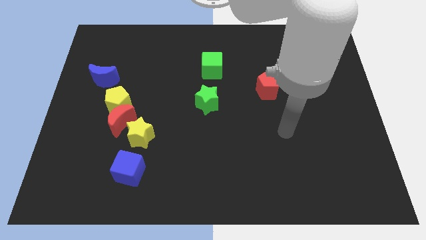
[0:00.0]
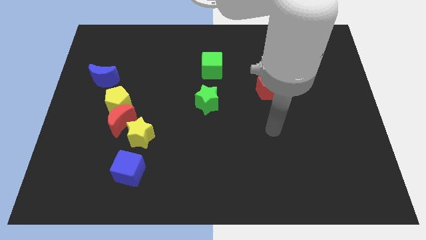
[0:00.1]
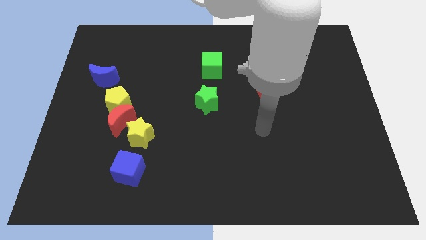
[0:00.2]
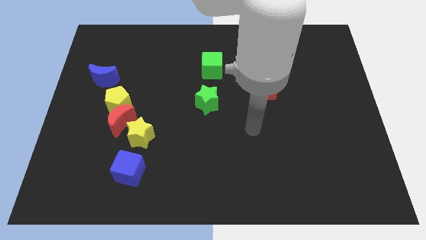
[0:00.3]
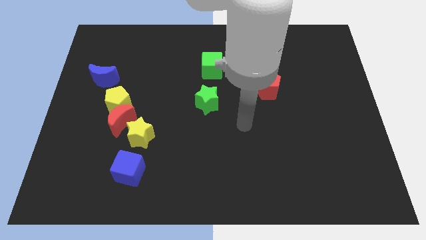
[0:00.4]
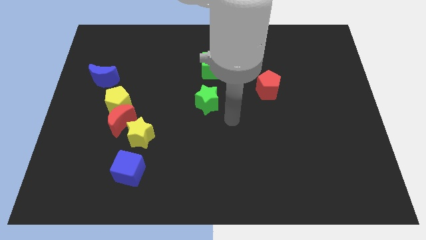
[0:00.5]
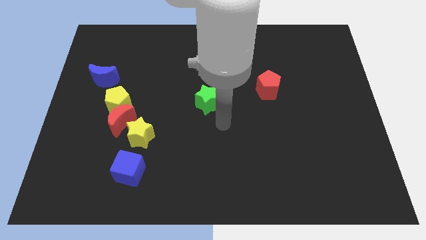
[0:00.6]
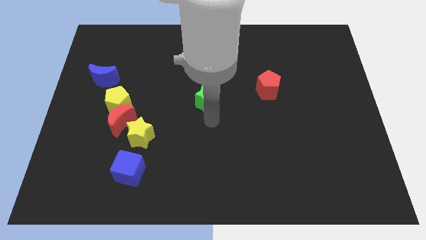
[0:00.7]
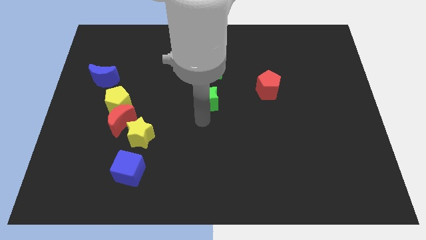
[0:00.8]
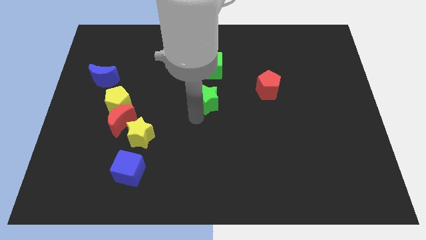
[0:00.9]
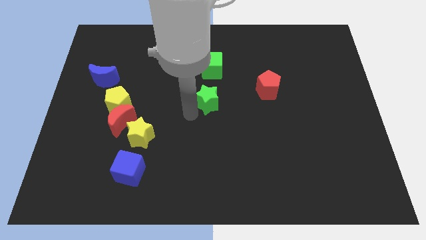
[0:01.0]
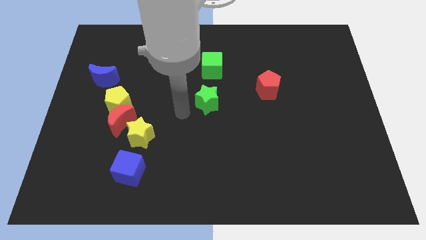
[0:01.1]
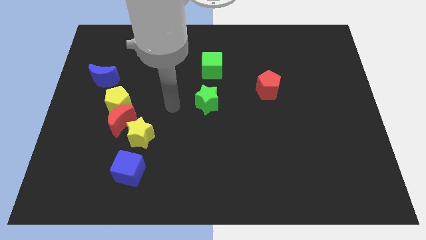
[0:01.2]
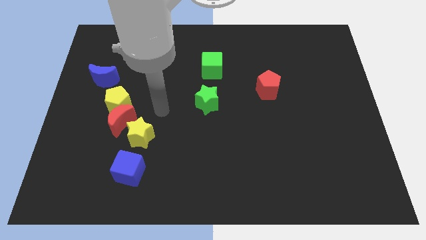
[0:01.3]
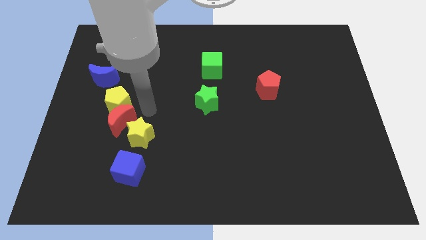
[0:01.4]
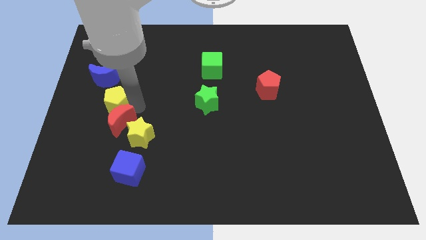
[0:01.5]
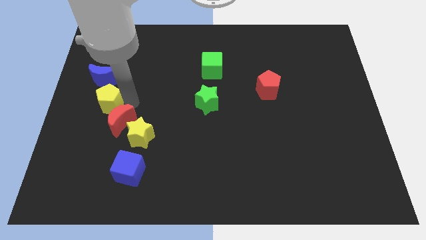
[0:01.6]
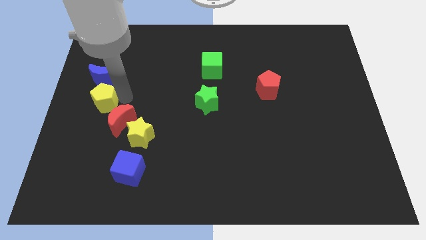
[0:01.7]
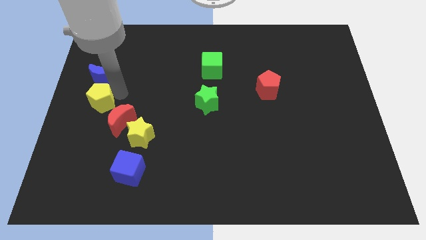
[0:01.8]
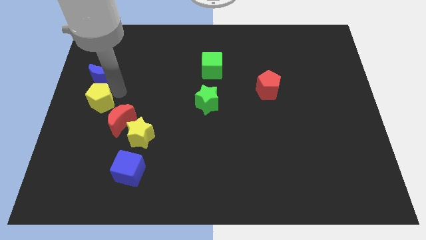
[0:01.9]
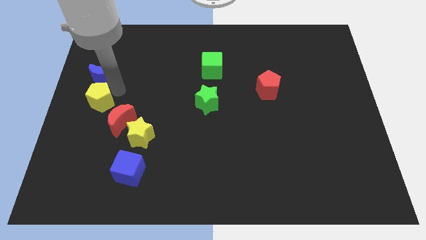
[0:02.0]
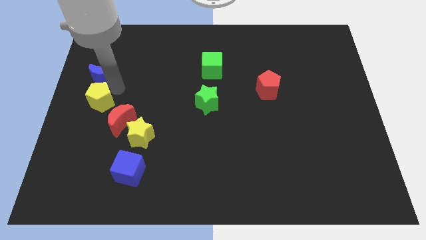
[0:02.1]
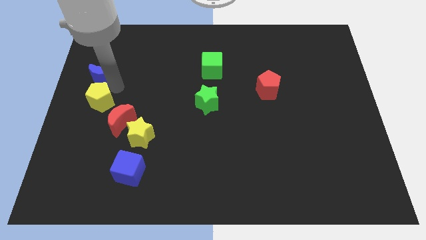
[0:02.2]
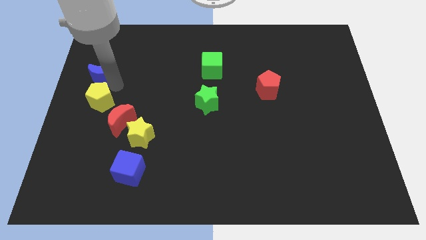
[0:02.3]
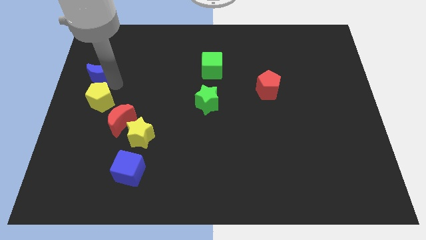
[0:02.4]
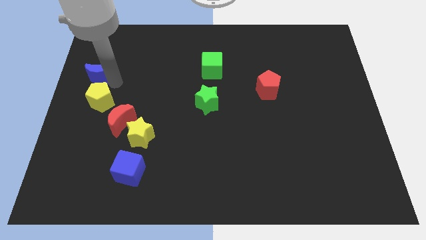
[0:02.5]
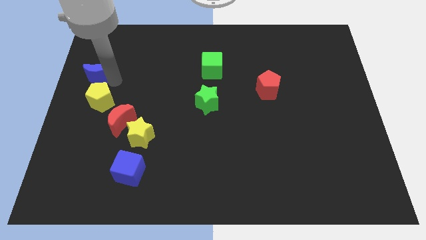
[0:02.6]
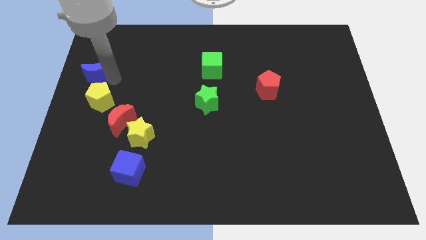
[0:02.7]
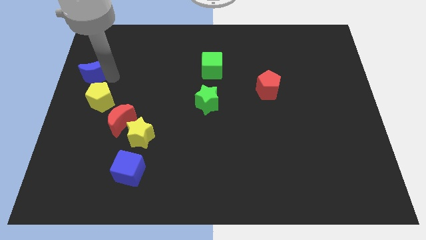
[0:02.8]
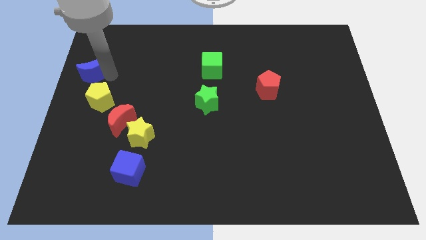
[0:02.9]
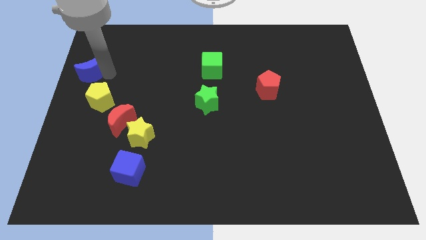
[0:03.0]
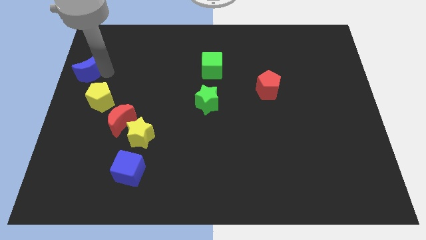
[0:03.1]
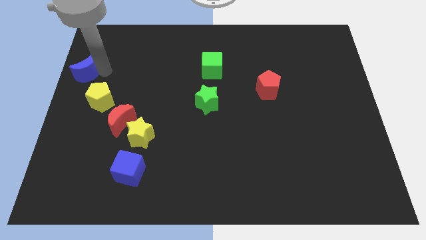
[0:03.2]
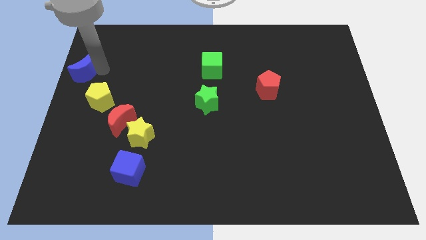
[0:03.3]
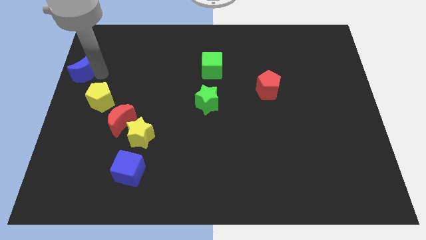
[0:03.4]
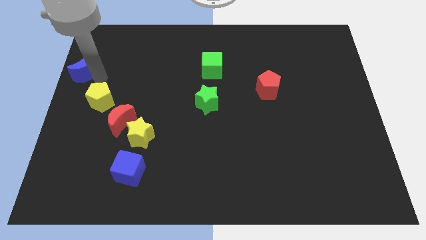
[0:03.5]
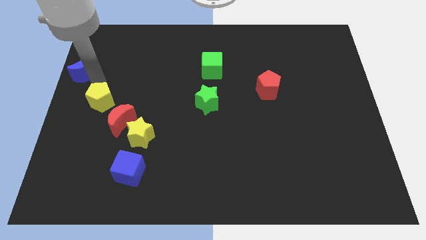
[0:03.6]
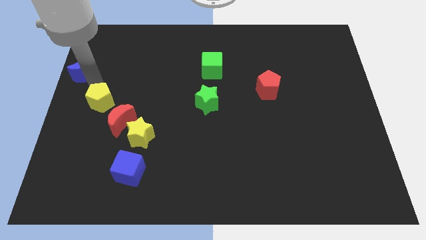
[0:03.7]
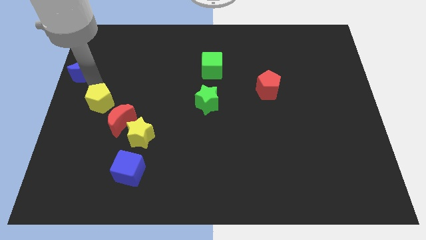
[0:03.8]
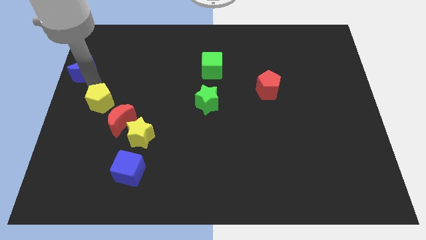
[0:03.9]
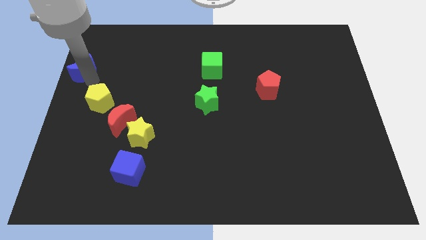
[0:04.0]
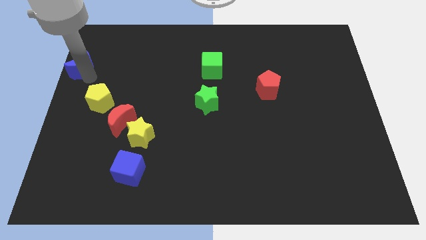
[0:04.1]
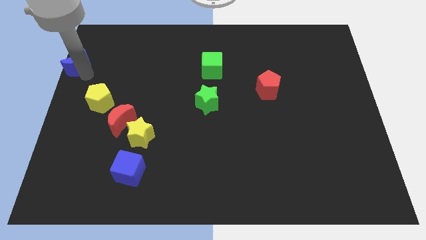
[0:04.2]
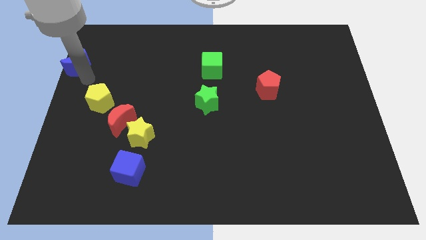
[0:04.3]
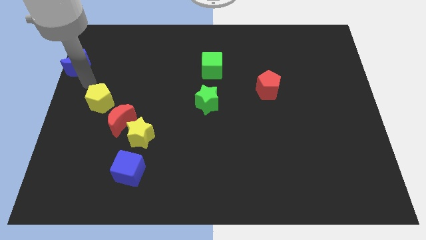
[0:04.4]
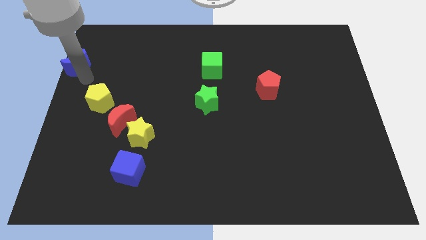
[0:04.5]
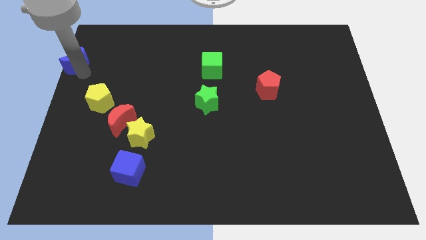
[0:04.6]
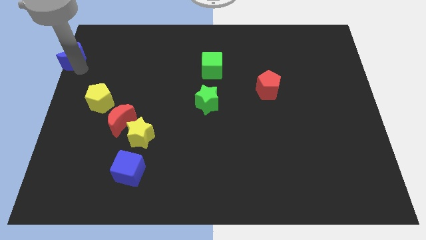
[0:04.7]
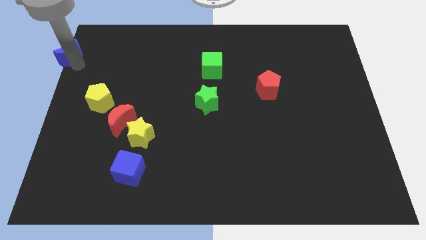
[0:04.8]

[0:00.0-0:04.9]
slide the blue moon to the top left of the board

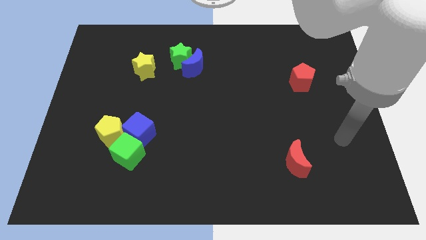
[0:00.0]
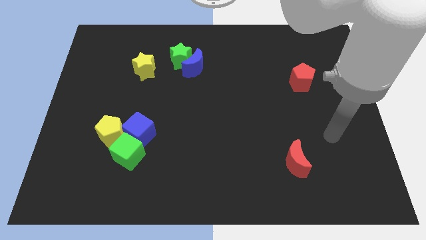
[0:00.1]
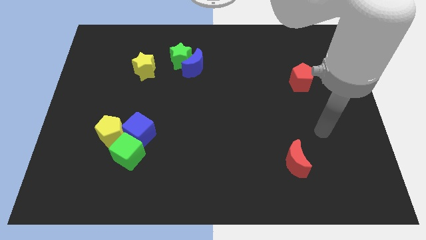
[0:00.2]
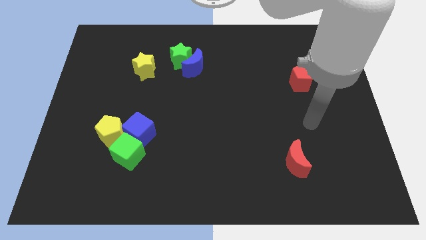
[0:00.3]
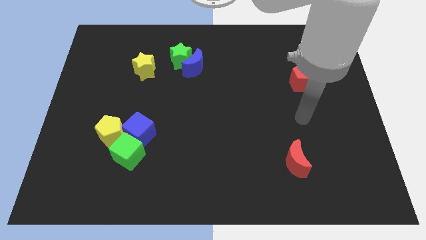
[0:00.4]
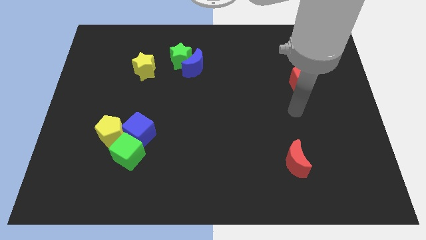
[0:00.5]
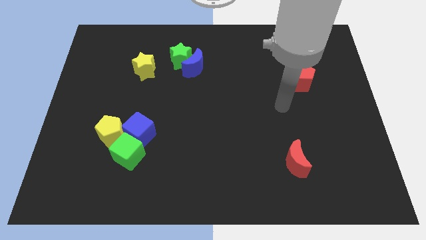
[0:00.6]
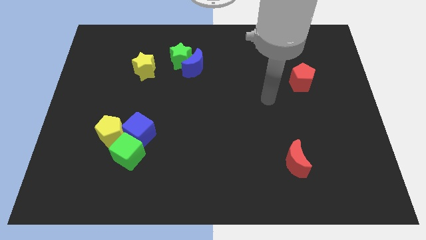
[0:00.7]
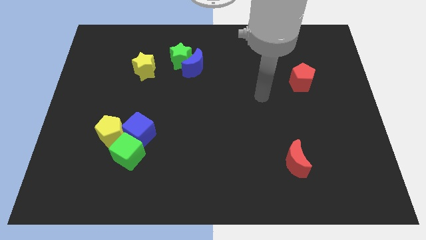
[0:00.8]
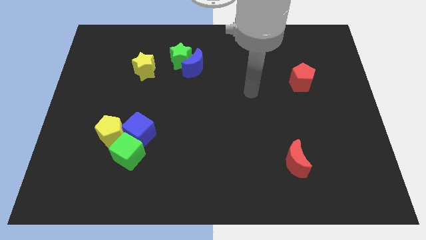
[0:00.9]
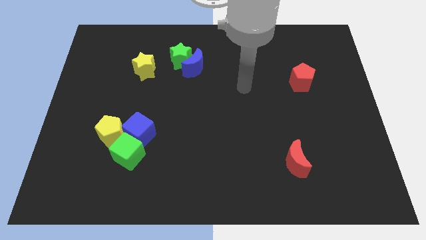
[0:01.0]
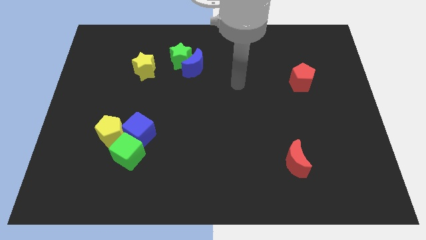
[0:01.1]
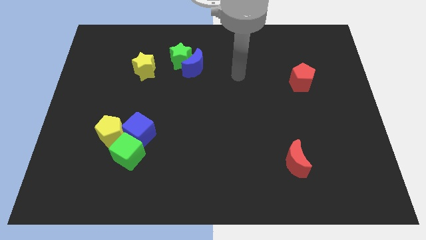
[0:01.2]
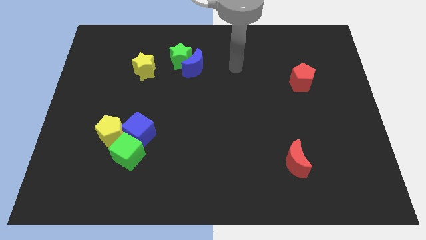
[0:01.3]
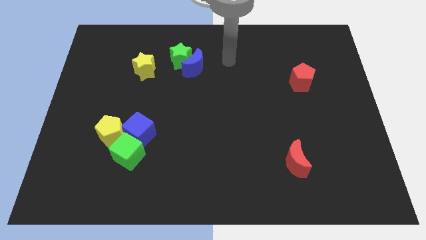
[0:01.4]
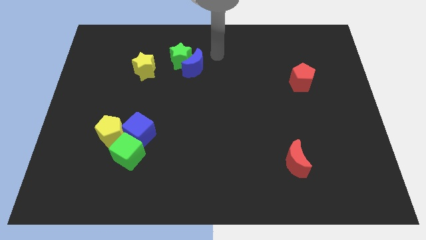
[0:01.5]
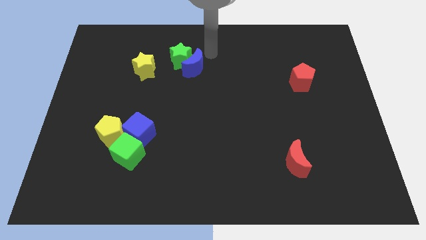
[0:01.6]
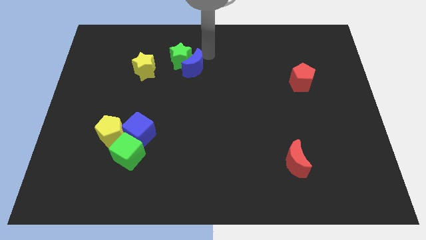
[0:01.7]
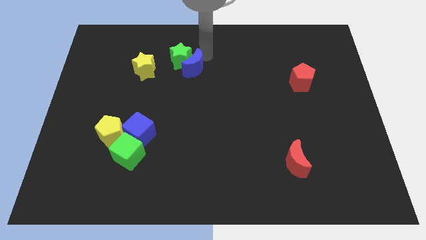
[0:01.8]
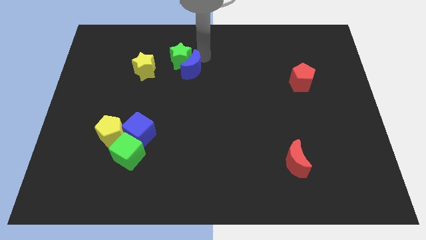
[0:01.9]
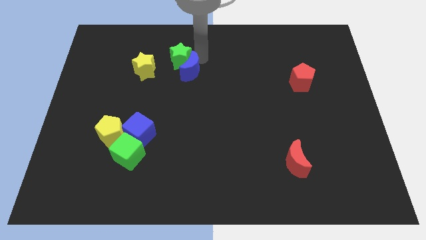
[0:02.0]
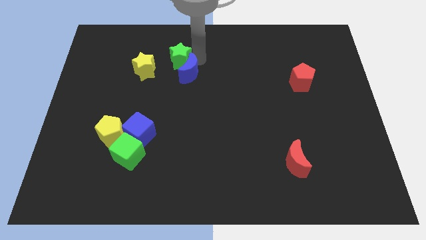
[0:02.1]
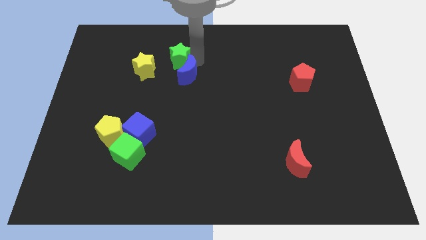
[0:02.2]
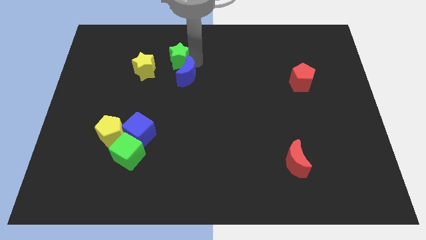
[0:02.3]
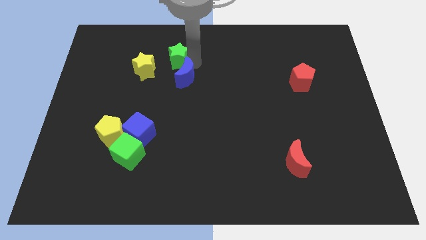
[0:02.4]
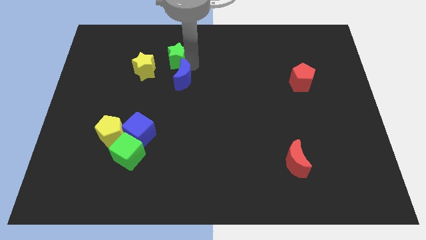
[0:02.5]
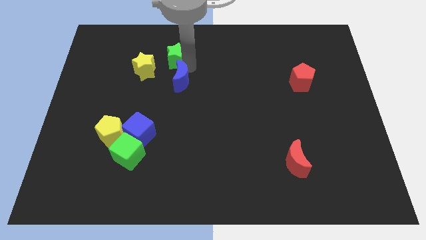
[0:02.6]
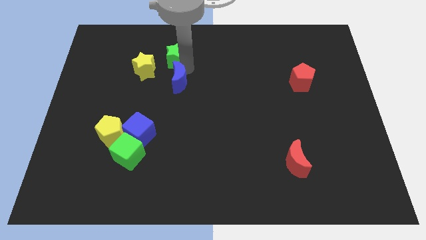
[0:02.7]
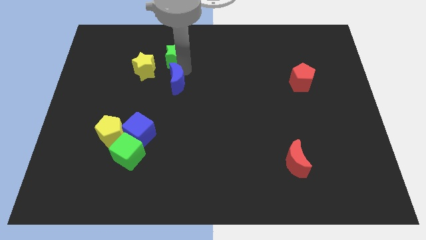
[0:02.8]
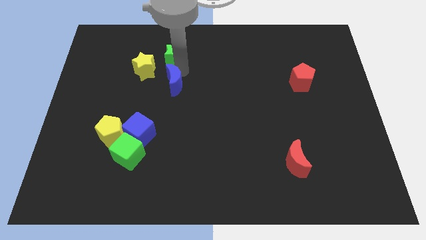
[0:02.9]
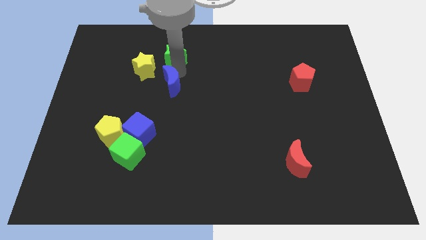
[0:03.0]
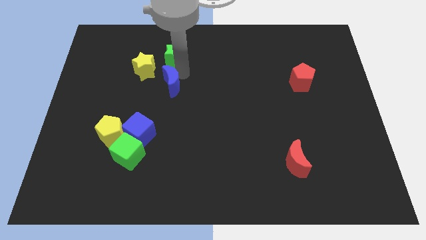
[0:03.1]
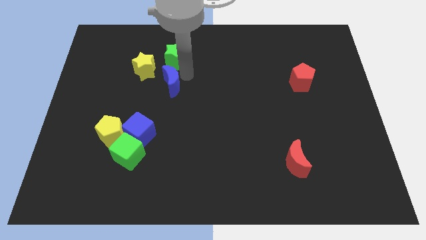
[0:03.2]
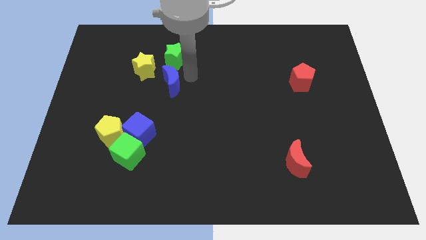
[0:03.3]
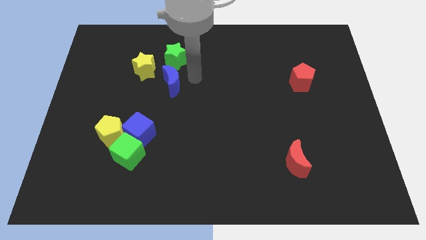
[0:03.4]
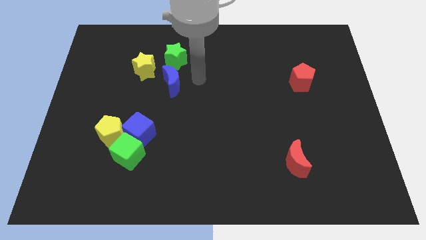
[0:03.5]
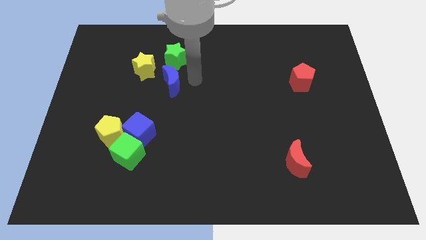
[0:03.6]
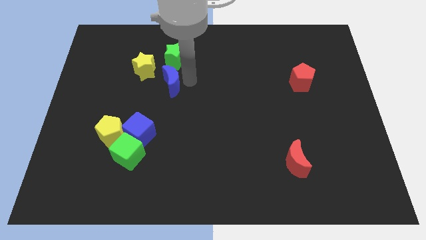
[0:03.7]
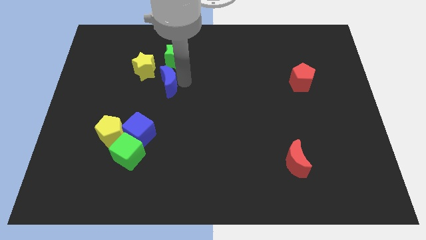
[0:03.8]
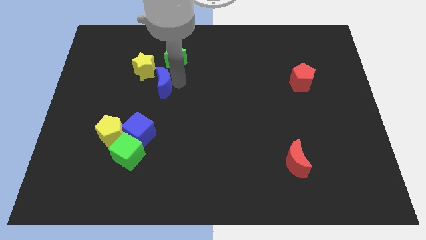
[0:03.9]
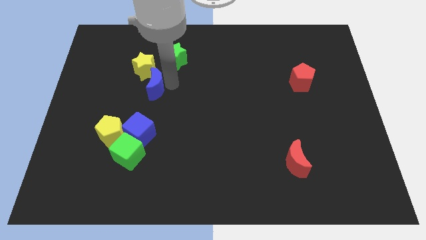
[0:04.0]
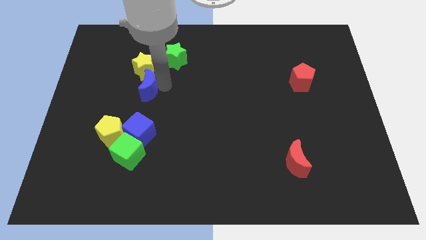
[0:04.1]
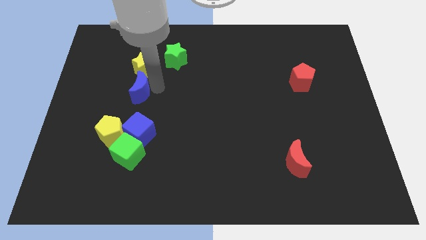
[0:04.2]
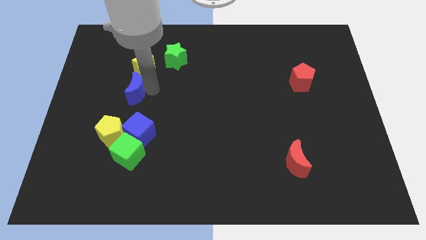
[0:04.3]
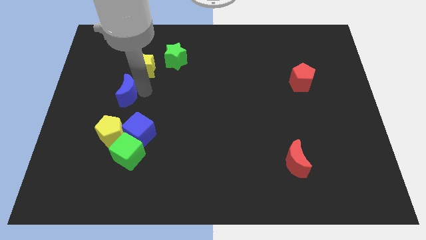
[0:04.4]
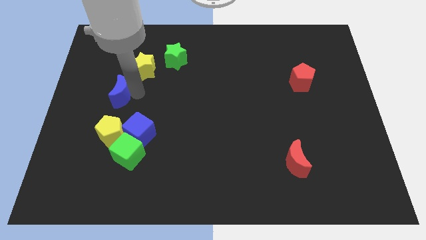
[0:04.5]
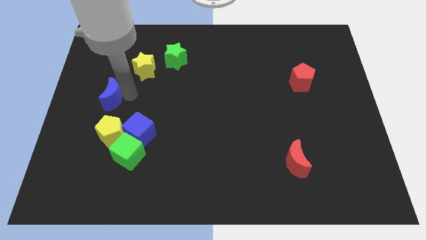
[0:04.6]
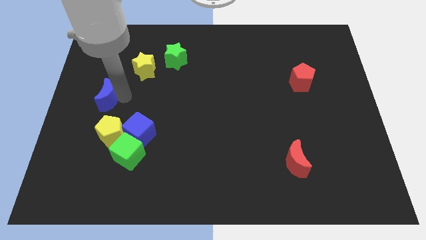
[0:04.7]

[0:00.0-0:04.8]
slide the blue moon to the left side
